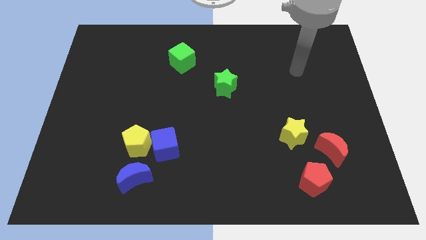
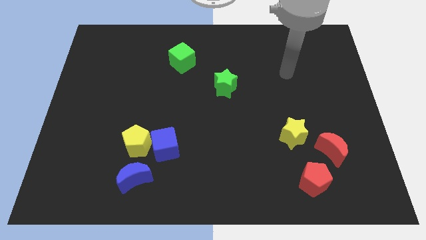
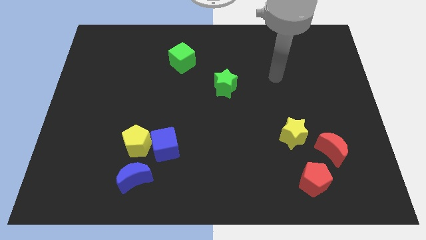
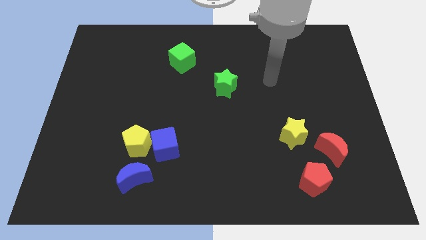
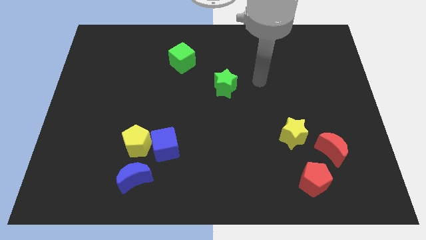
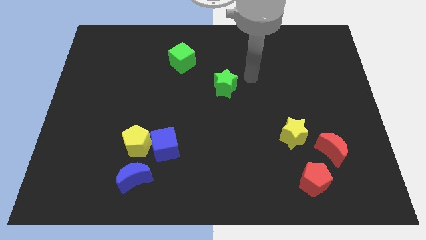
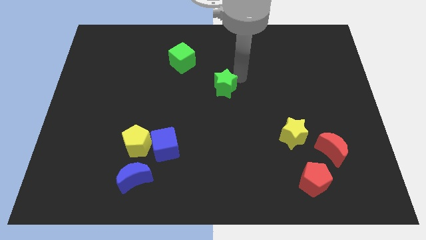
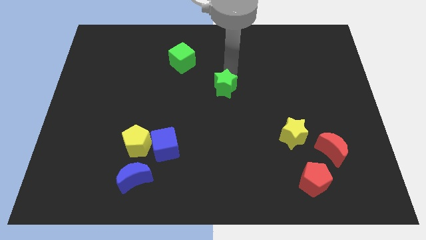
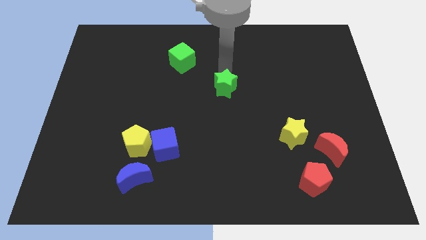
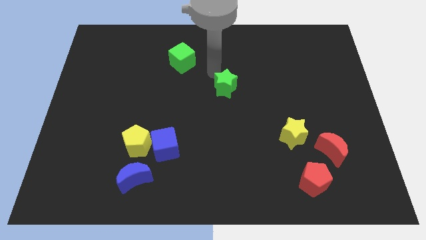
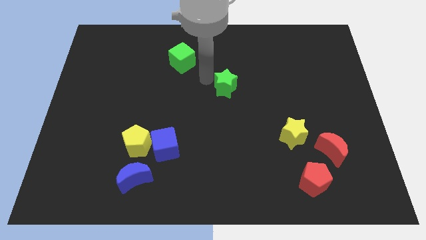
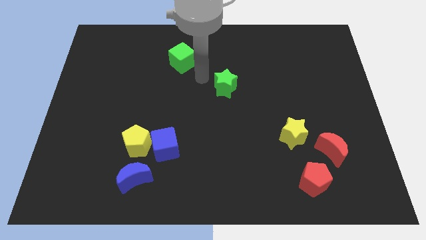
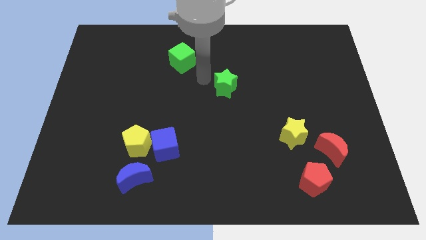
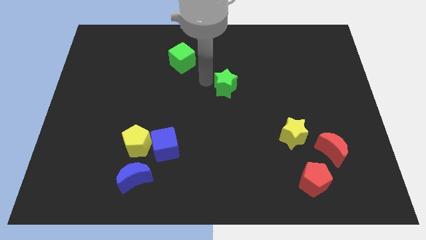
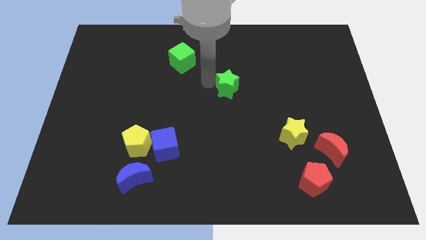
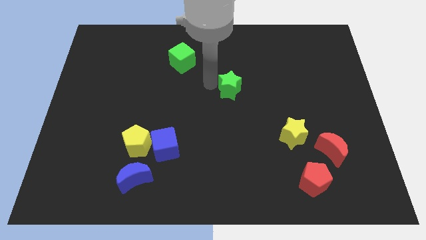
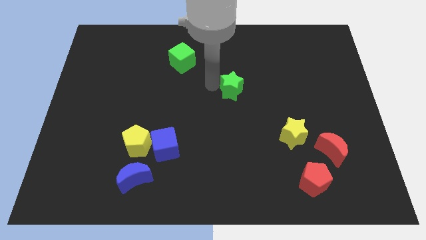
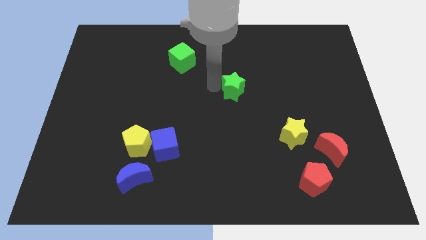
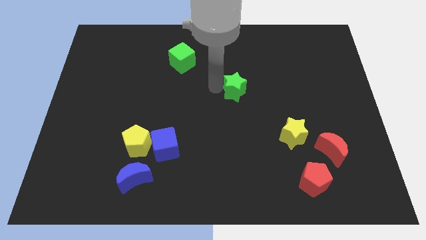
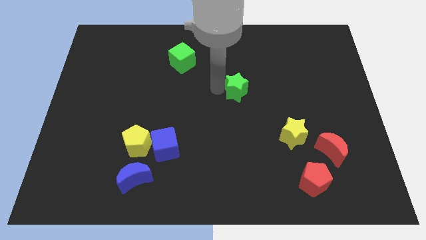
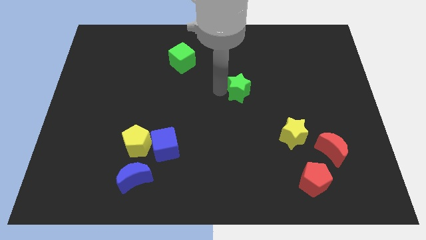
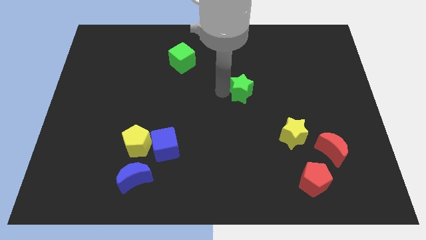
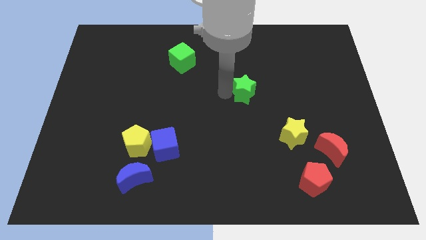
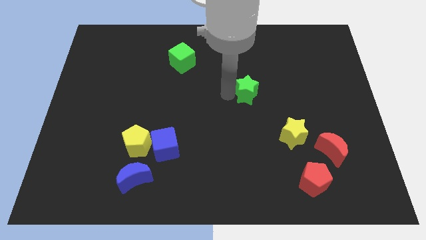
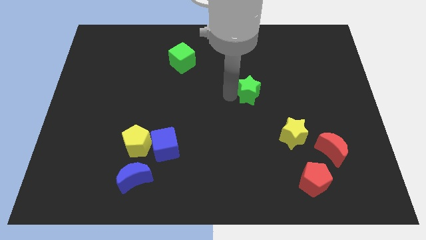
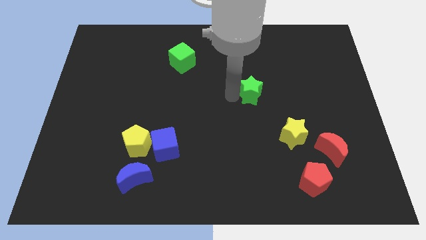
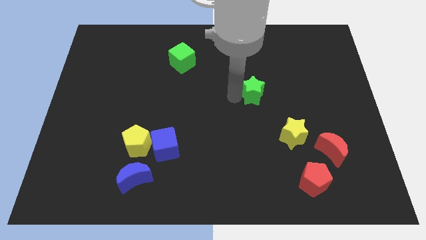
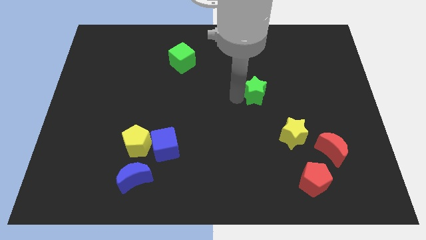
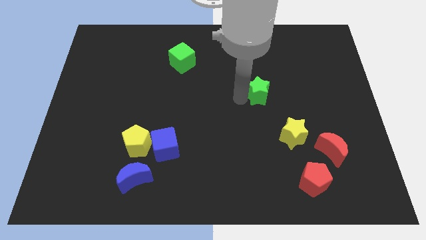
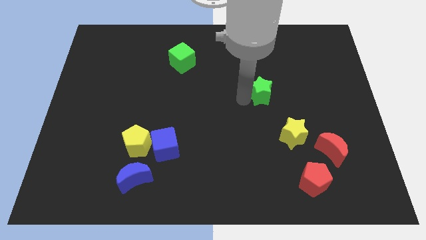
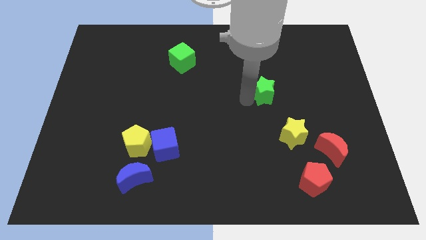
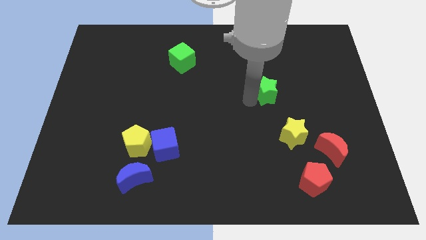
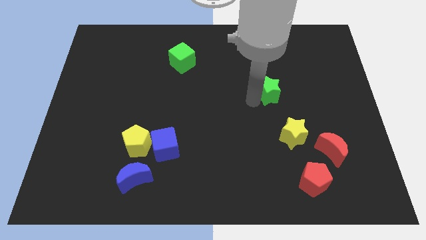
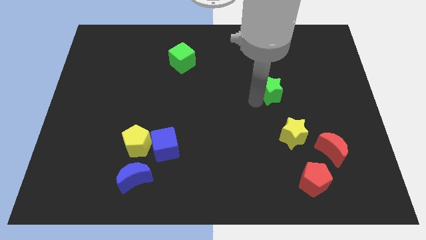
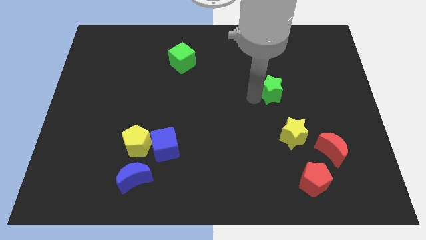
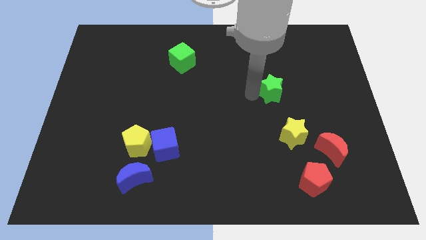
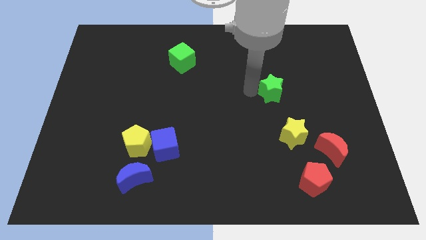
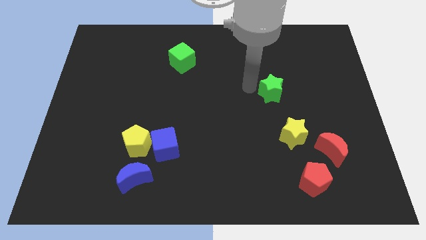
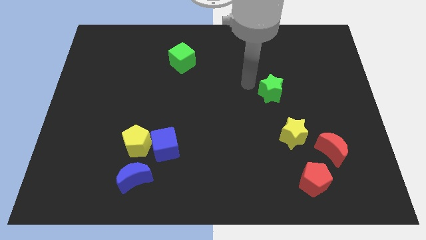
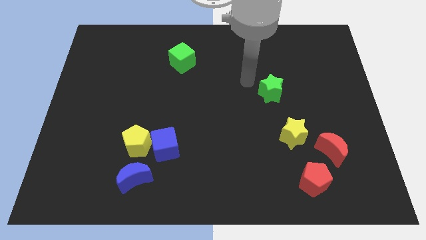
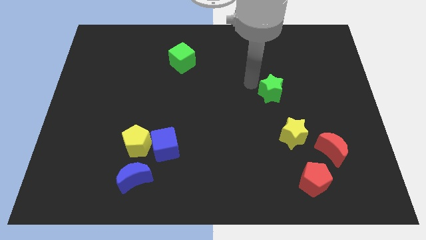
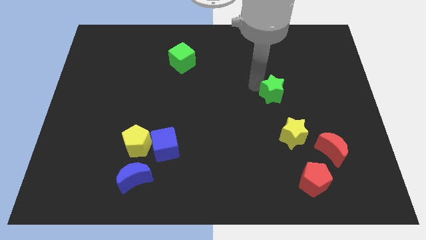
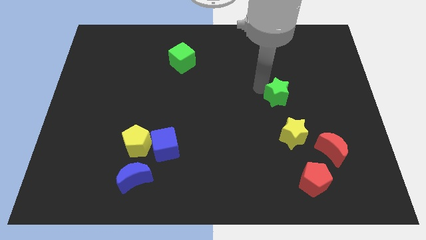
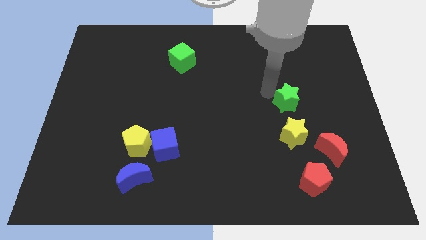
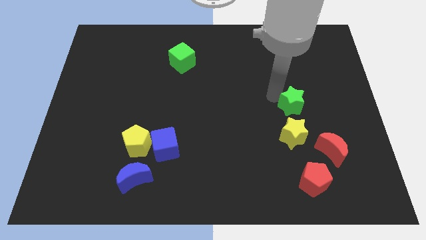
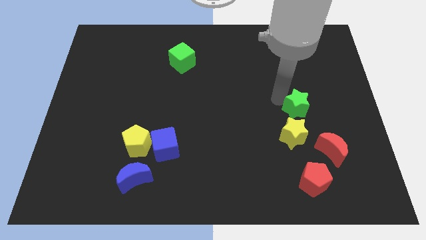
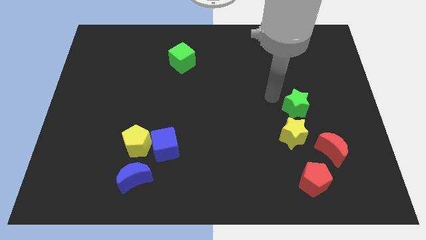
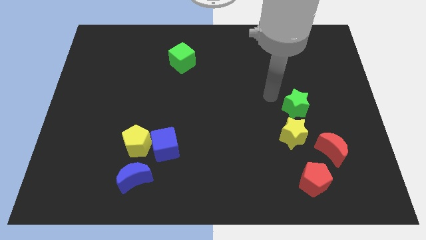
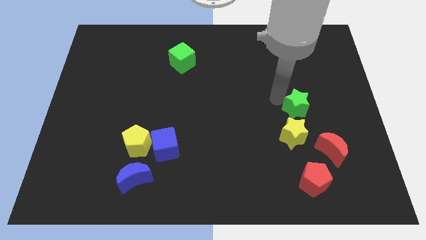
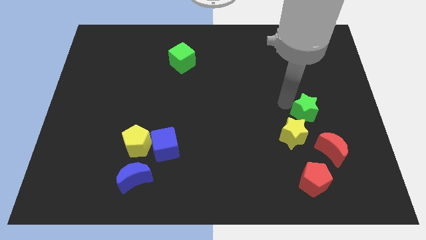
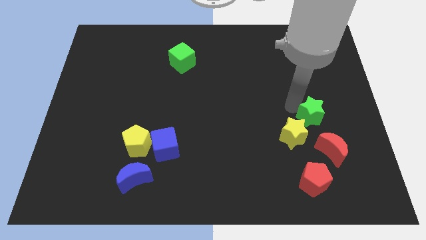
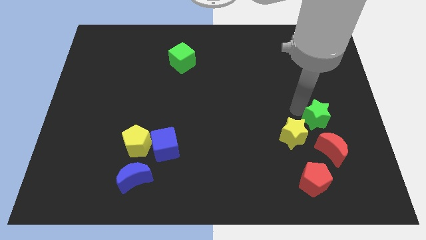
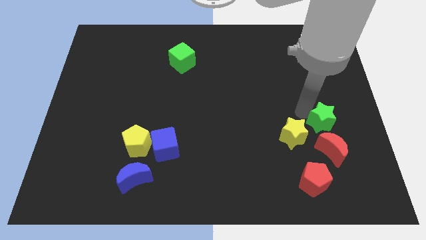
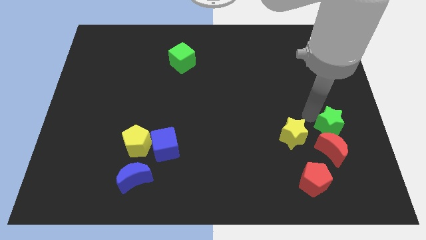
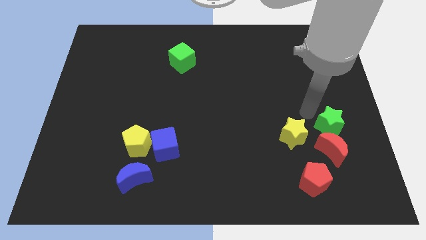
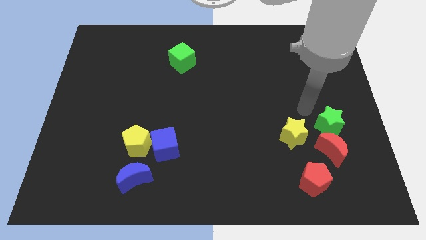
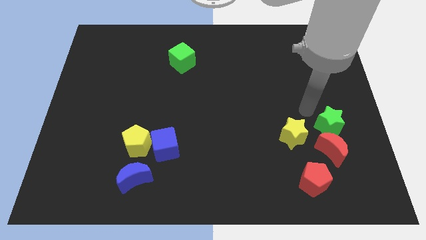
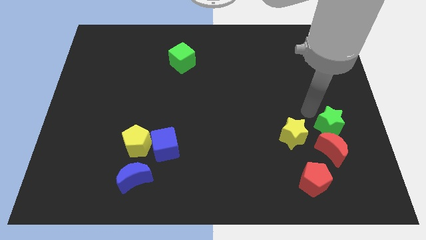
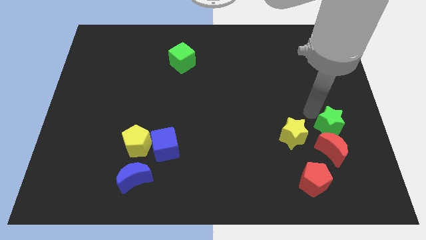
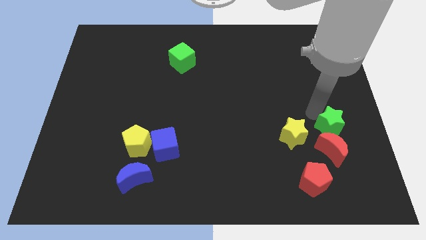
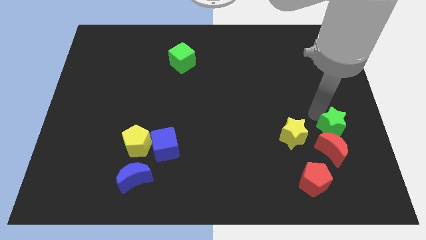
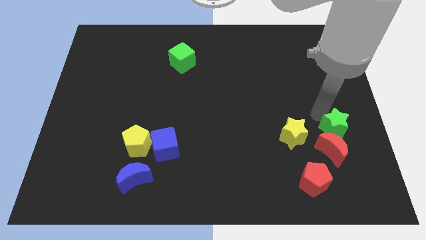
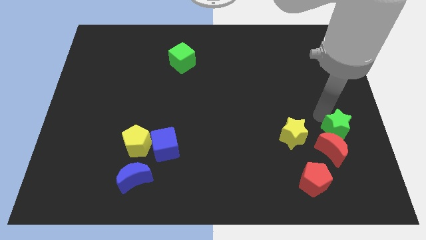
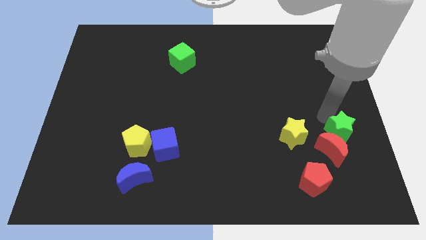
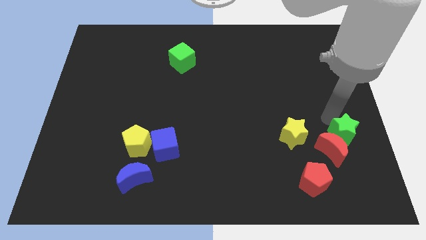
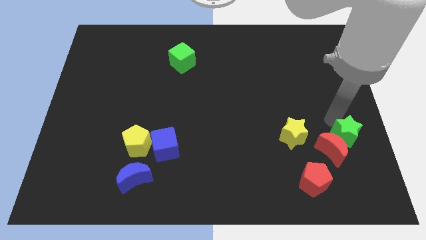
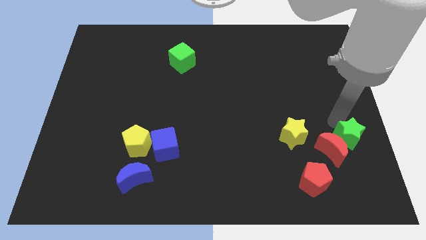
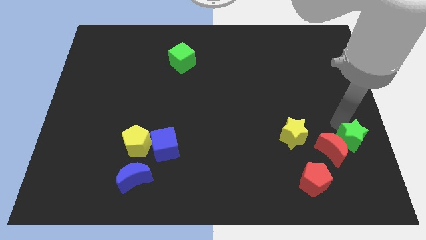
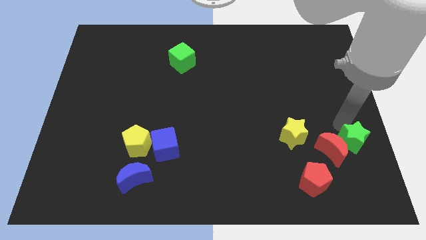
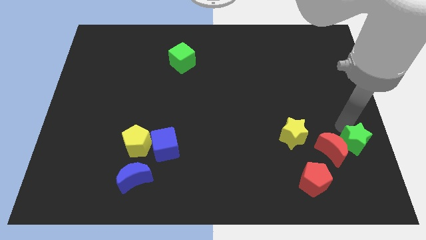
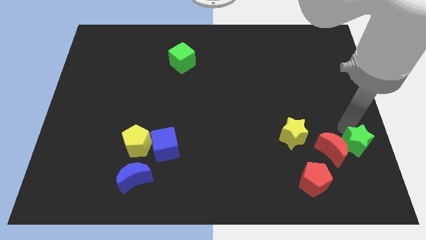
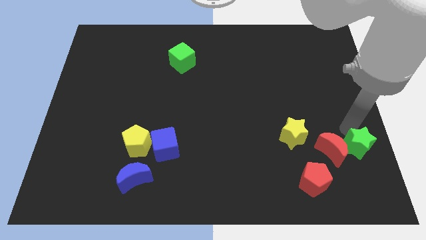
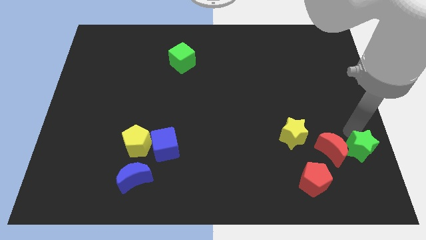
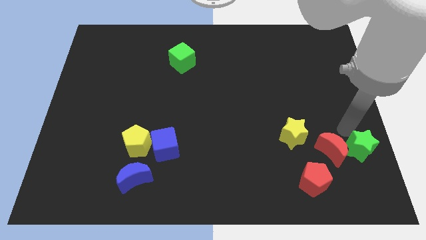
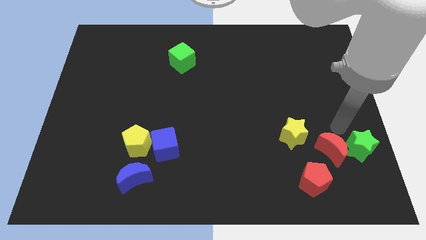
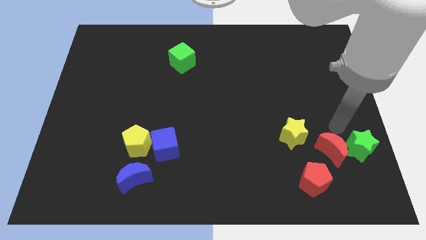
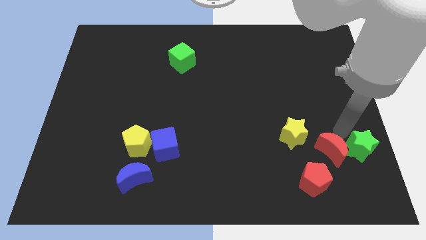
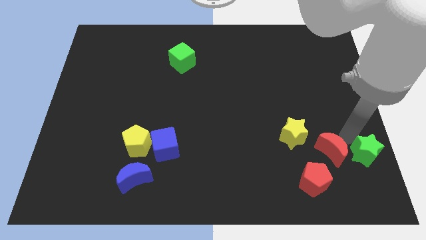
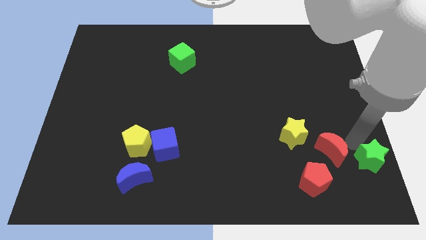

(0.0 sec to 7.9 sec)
move the green star to the bottom right of the board
